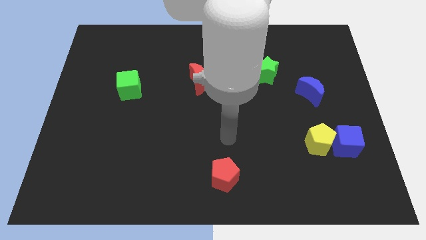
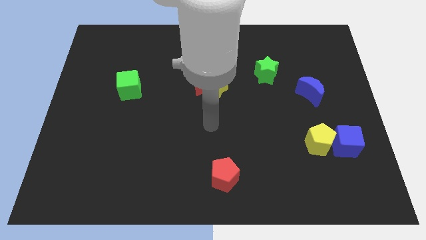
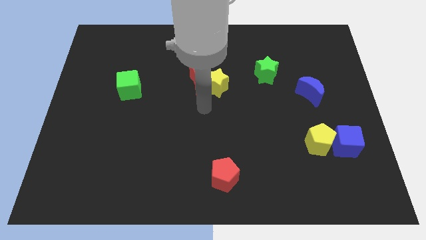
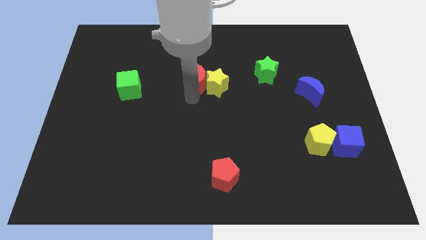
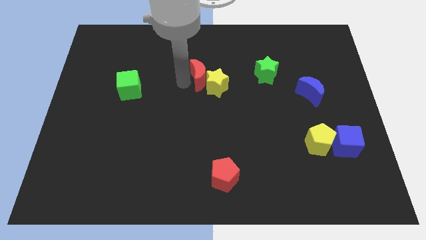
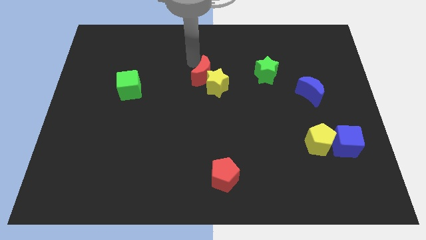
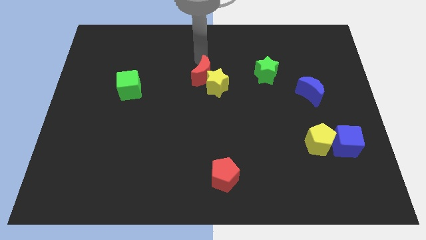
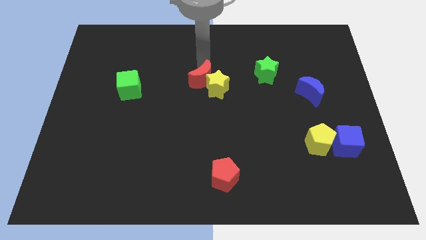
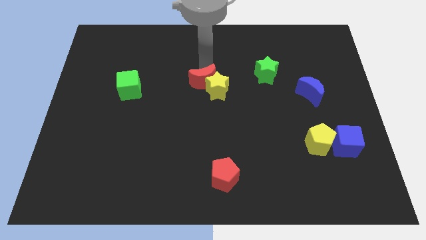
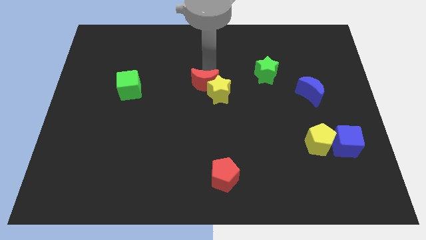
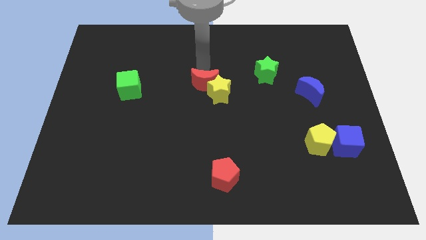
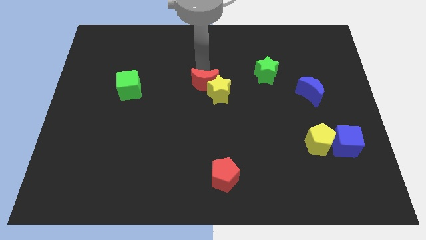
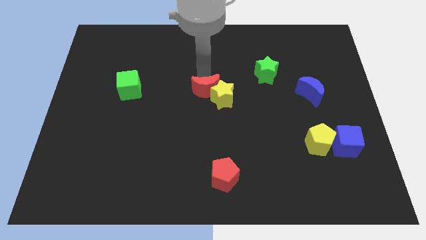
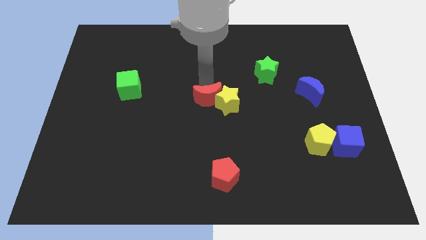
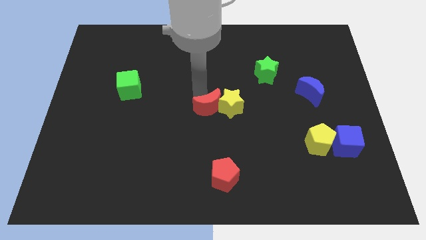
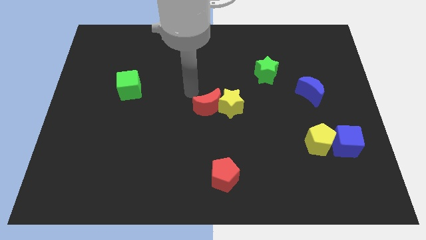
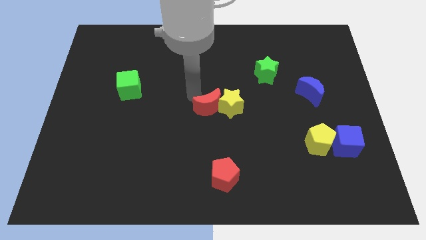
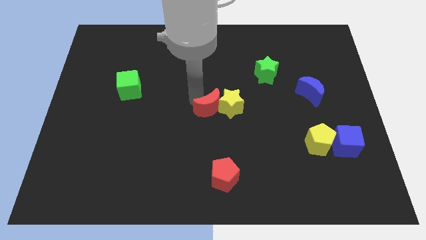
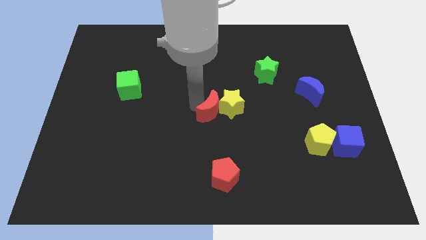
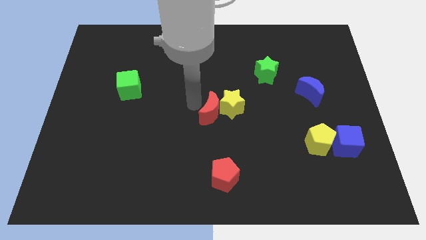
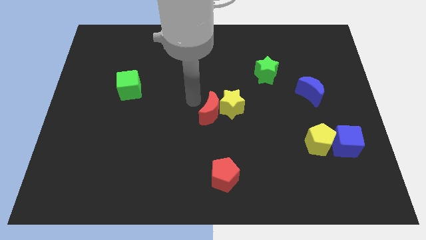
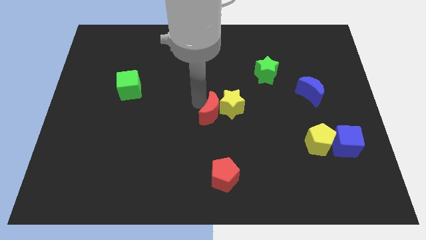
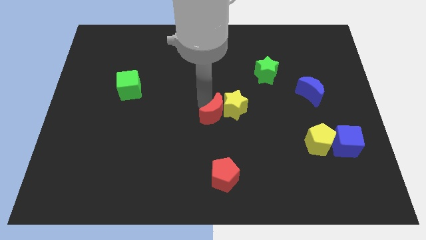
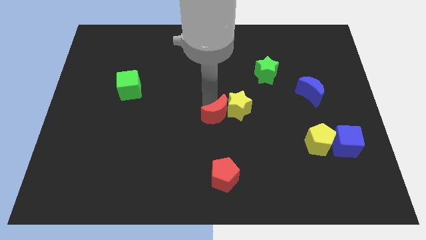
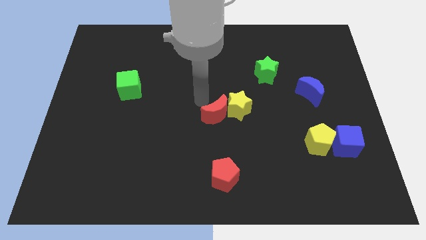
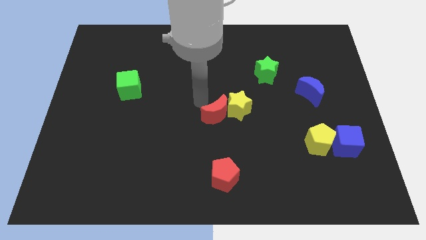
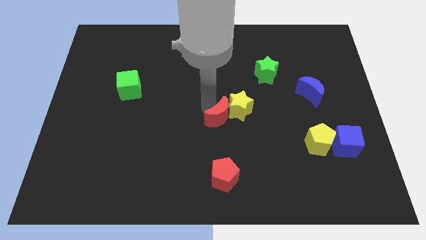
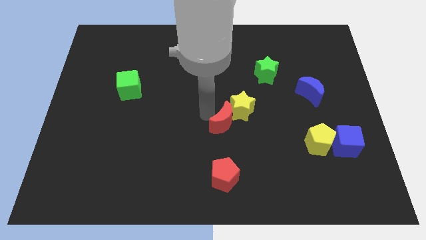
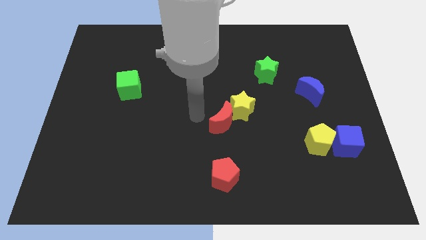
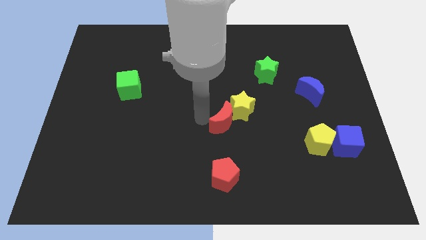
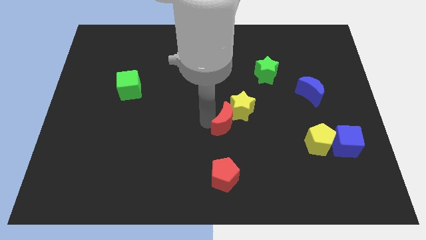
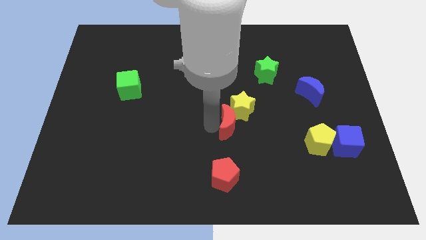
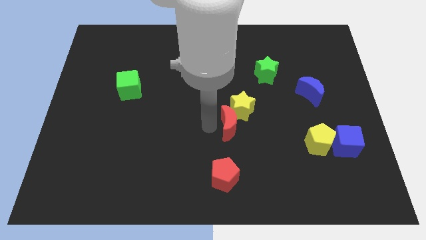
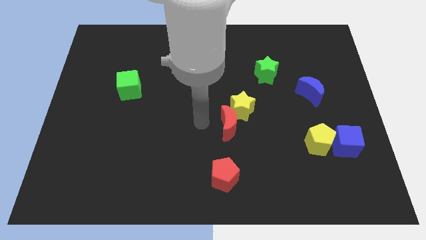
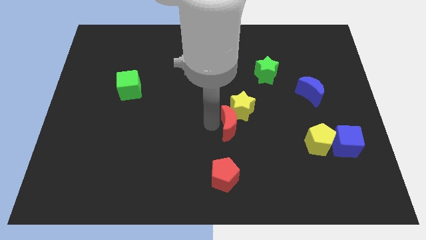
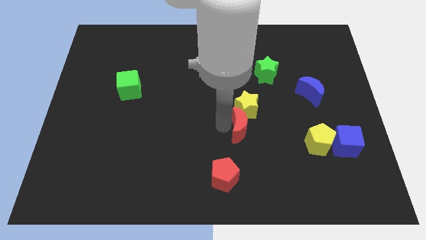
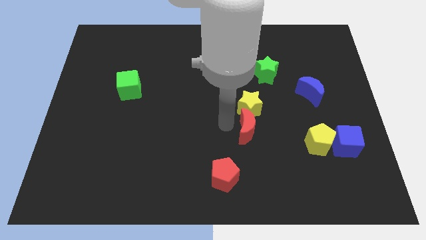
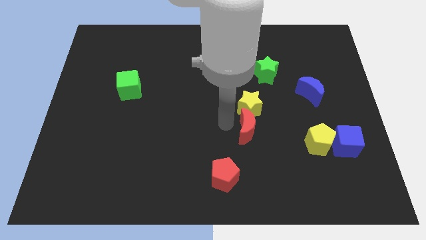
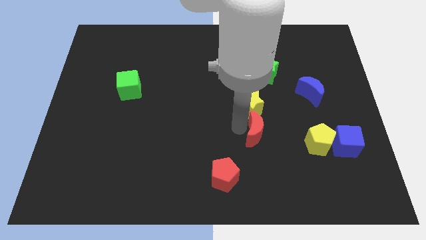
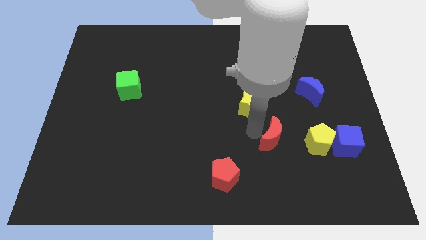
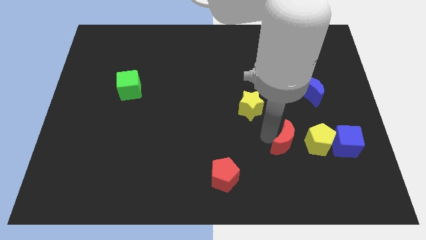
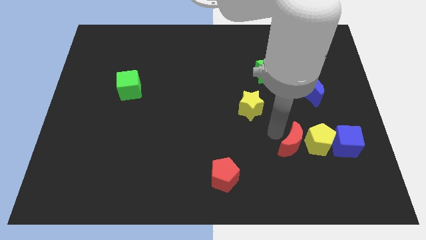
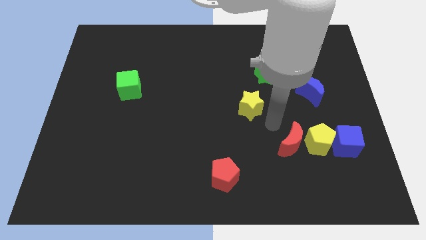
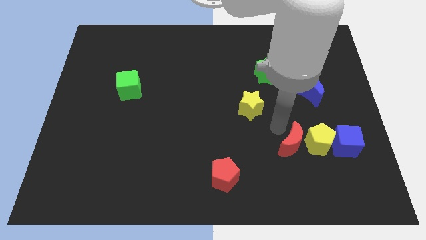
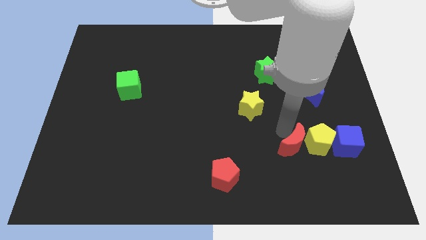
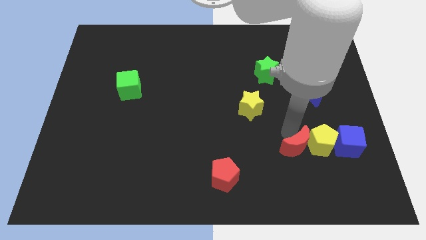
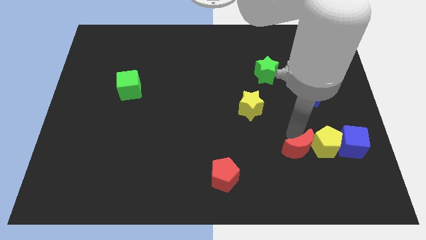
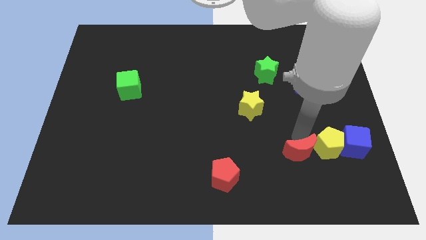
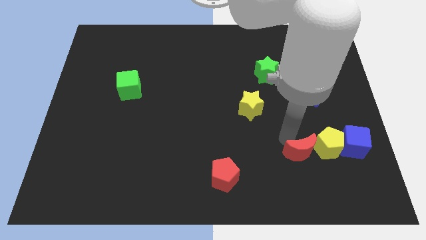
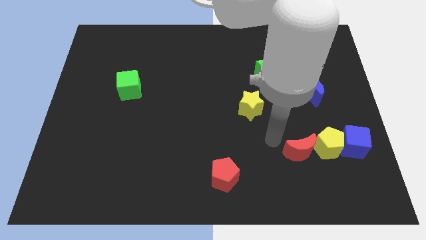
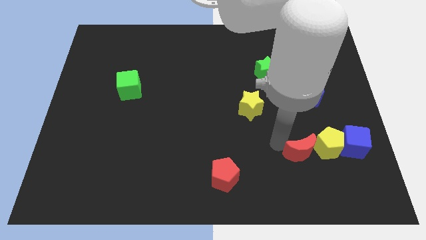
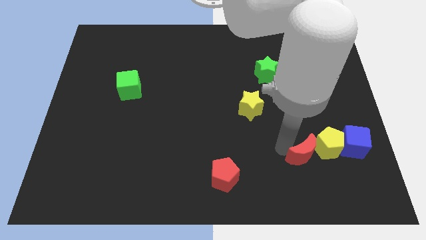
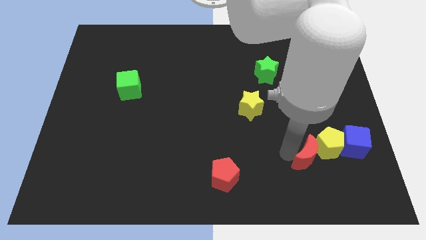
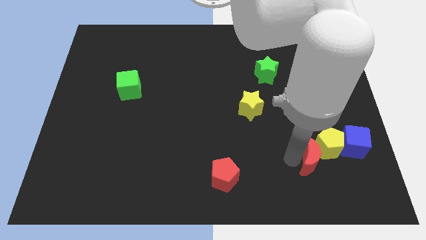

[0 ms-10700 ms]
push the red moon diagonally down and to the left of the blue cube

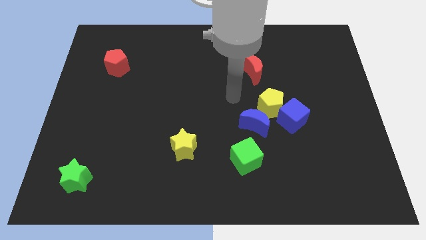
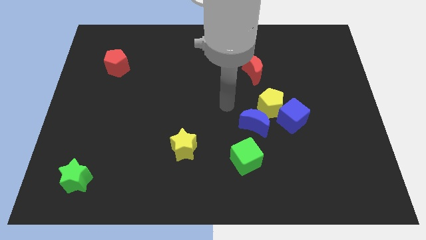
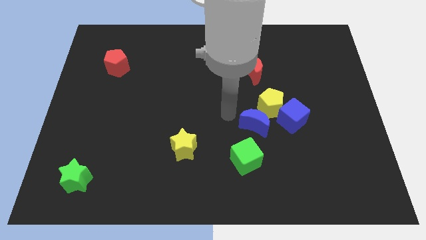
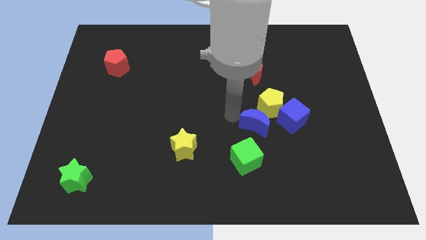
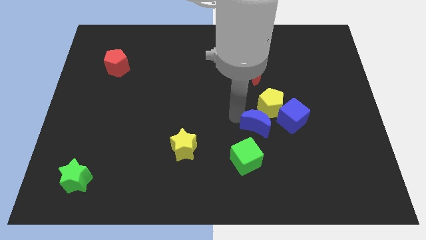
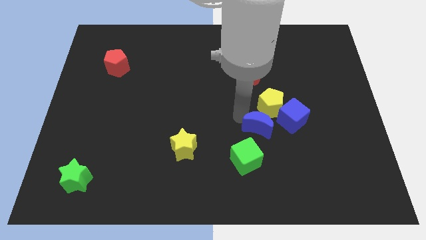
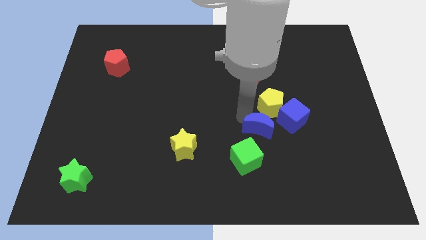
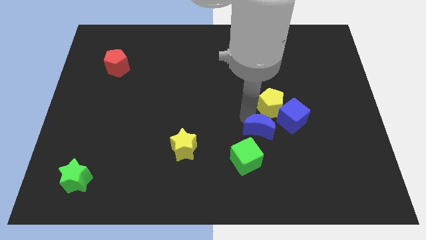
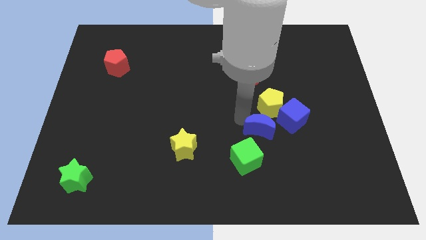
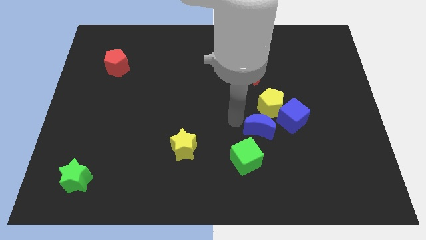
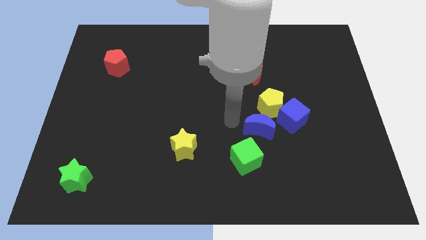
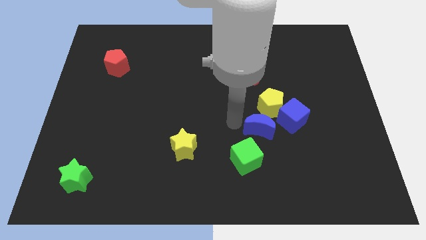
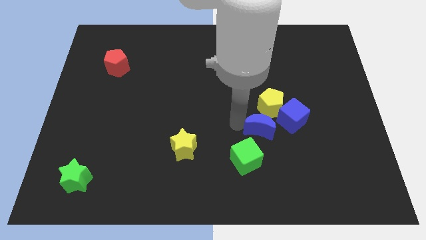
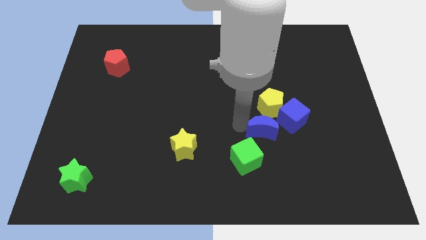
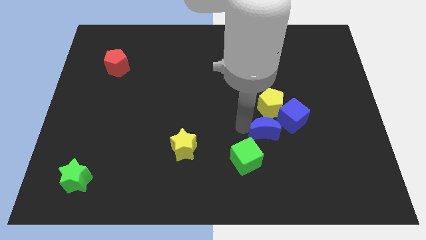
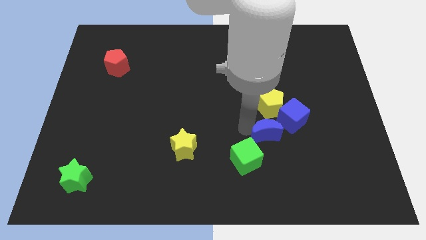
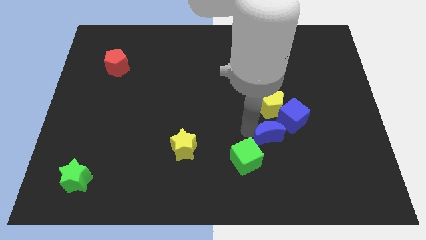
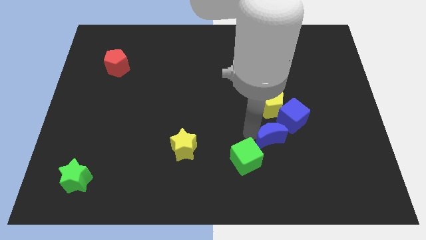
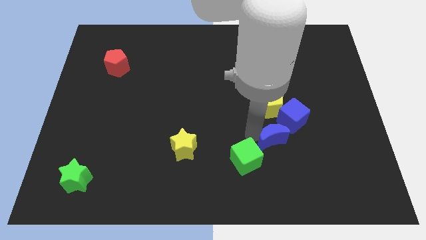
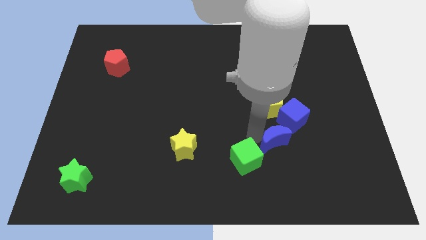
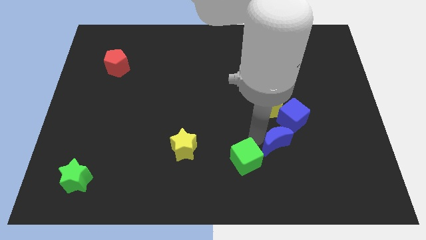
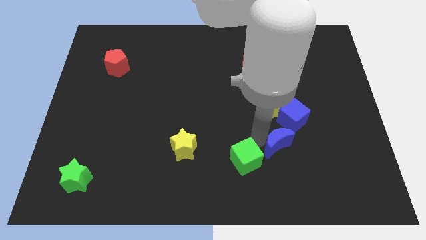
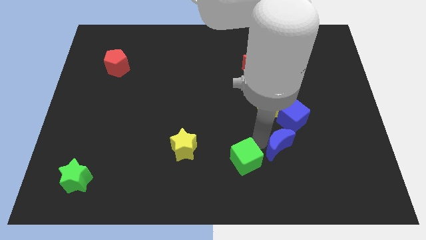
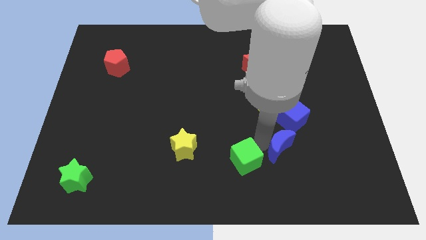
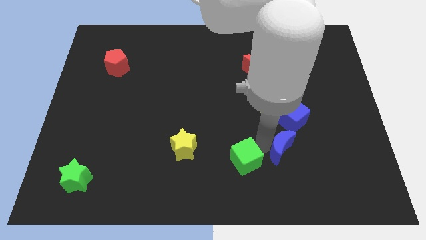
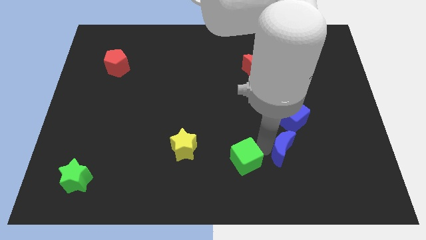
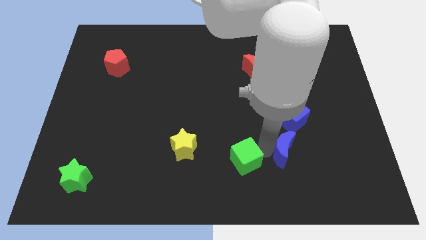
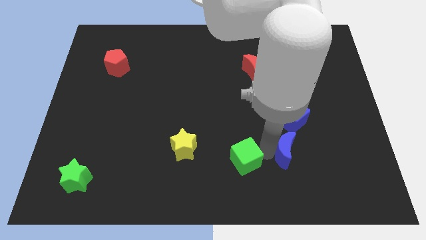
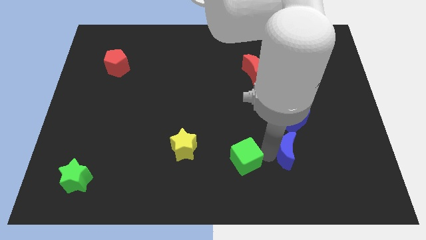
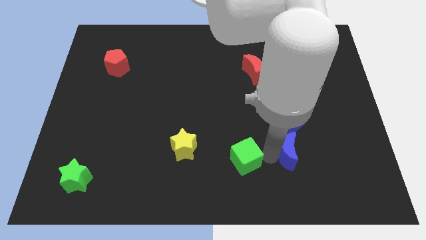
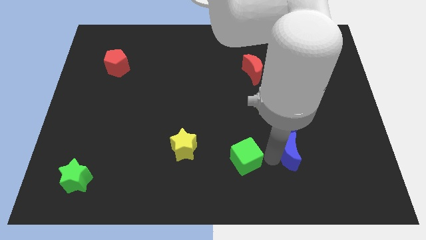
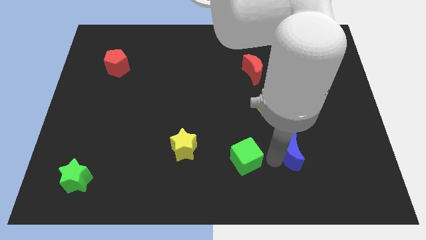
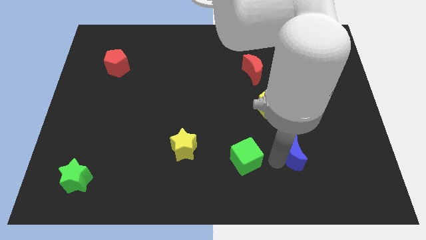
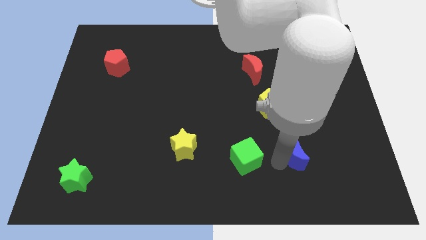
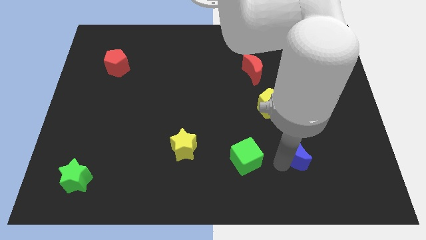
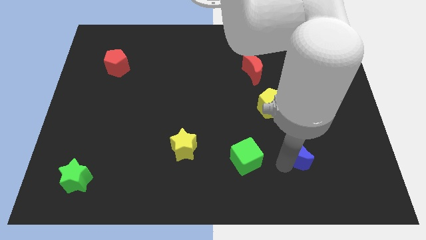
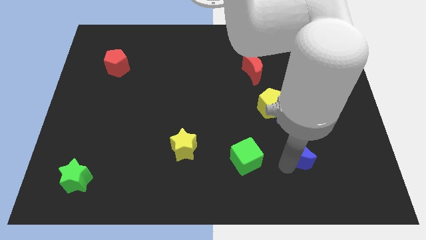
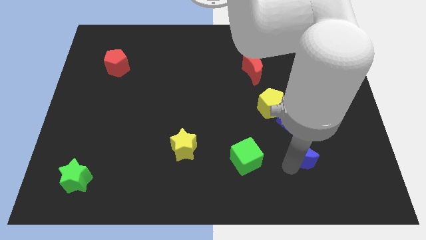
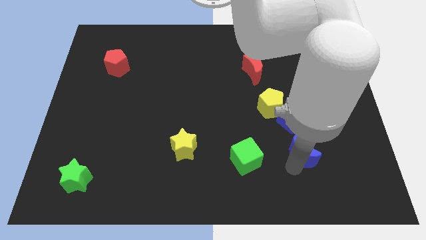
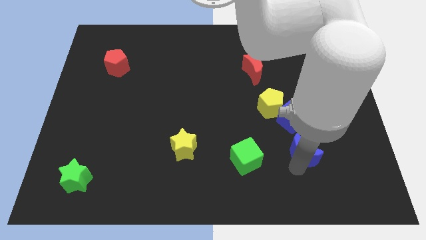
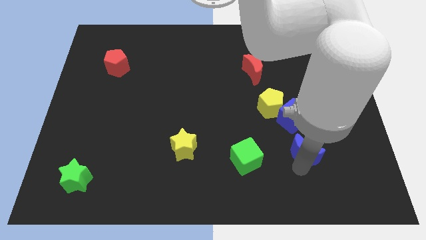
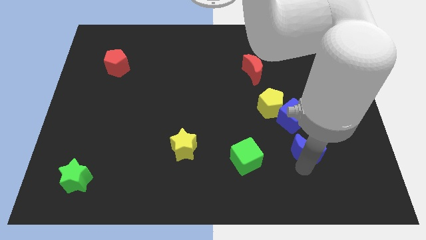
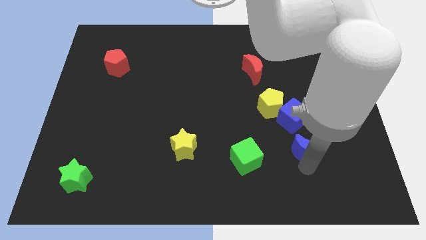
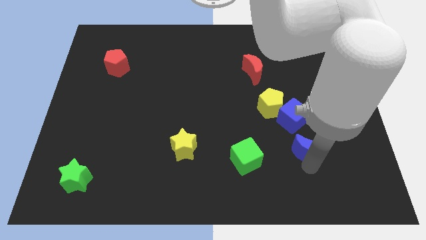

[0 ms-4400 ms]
move the blue moon to the bottom right of the blue cube
